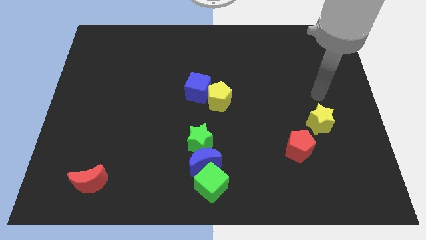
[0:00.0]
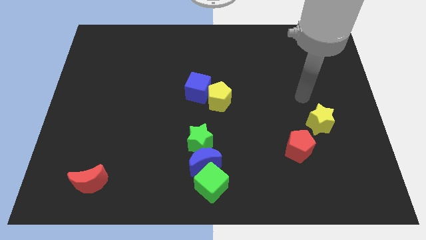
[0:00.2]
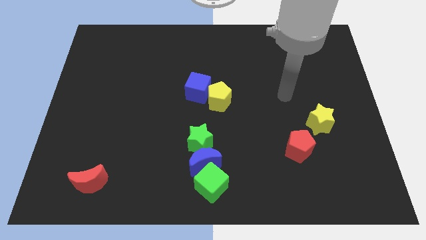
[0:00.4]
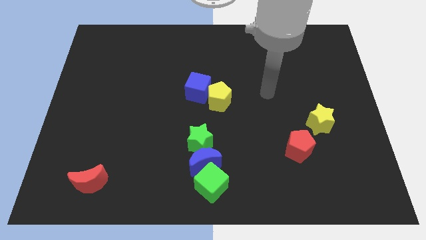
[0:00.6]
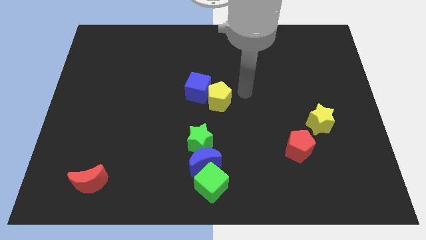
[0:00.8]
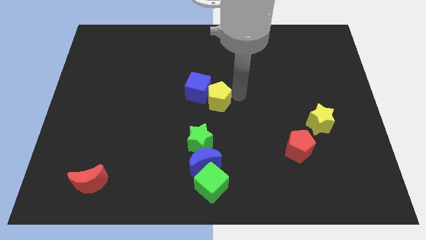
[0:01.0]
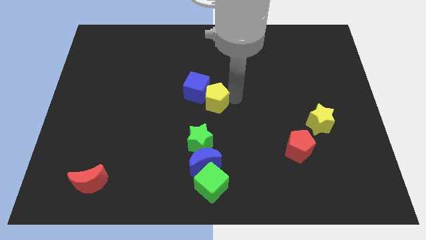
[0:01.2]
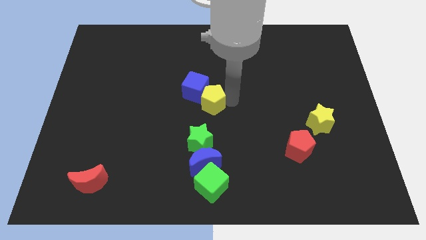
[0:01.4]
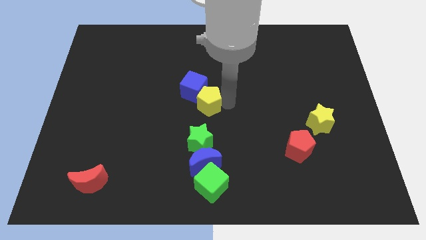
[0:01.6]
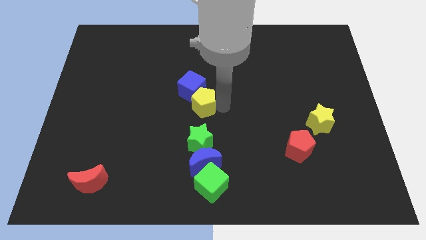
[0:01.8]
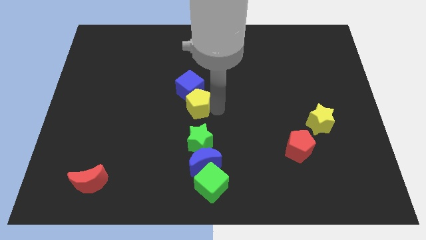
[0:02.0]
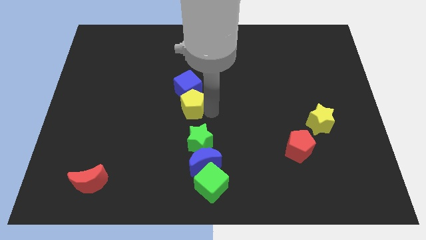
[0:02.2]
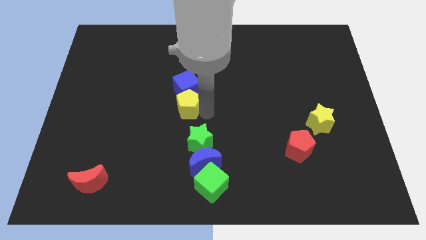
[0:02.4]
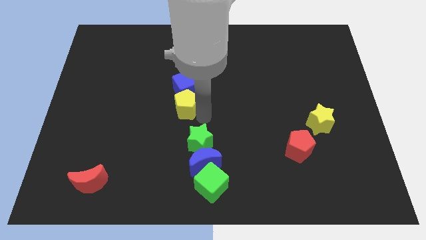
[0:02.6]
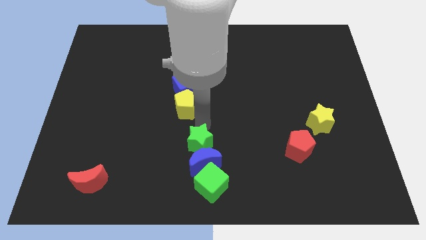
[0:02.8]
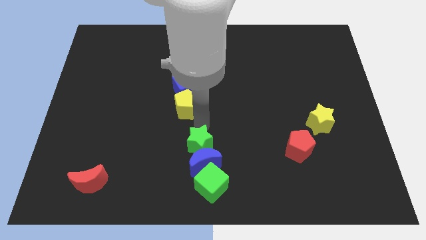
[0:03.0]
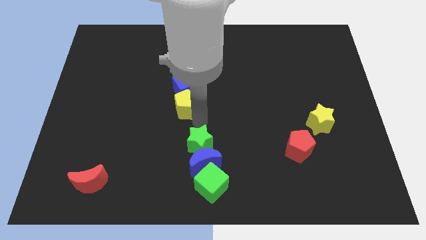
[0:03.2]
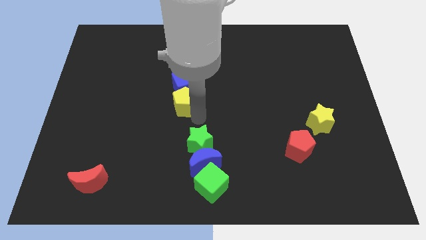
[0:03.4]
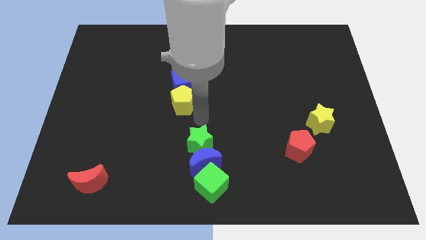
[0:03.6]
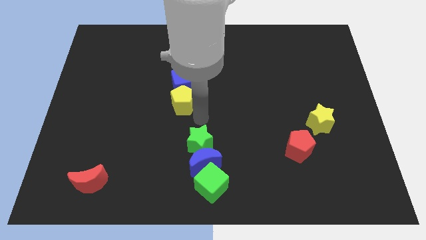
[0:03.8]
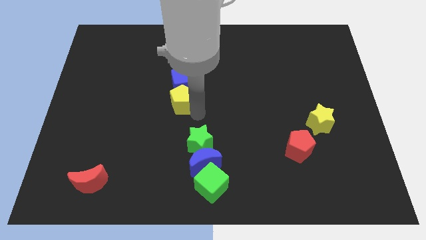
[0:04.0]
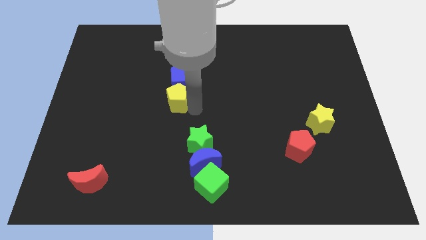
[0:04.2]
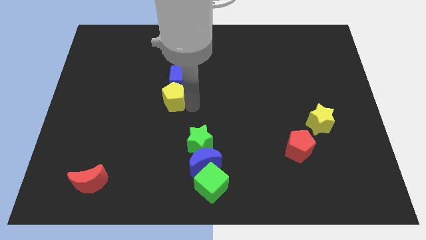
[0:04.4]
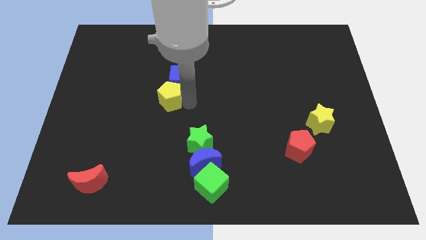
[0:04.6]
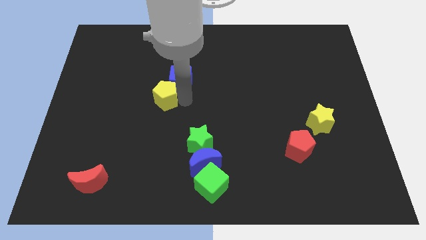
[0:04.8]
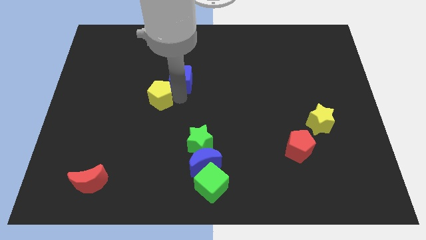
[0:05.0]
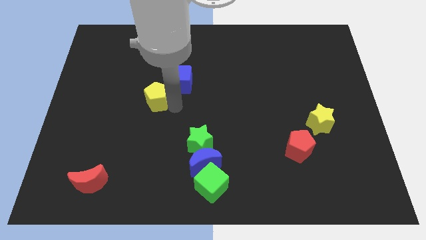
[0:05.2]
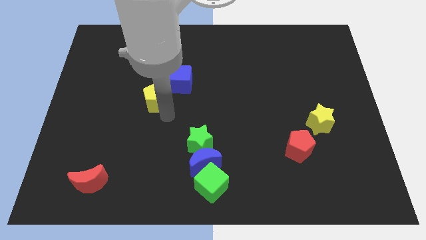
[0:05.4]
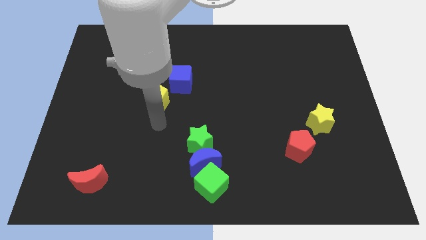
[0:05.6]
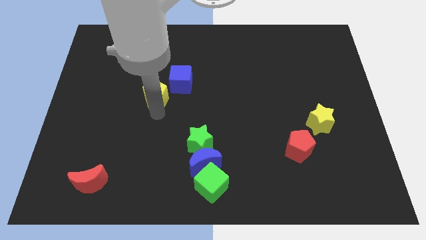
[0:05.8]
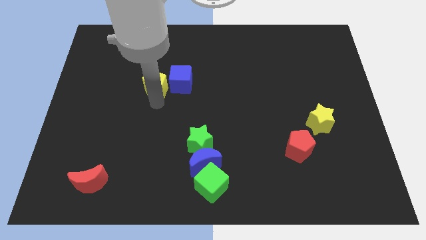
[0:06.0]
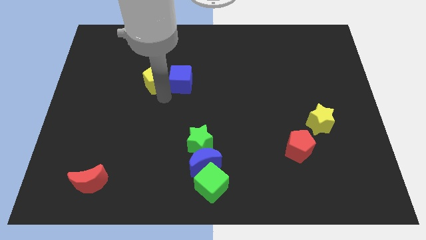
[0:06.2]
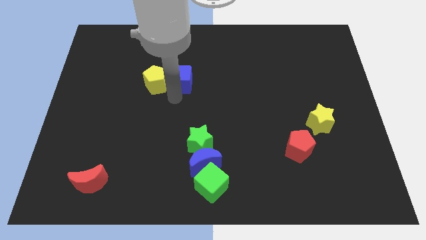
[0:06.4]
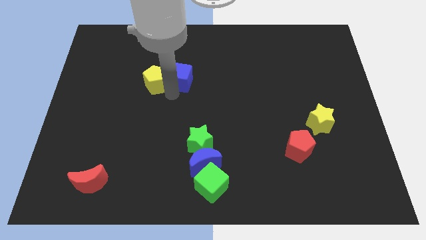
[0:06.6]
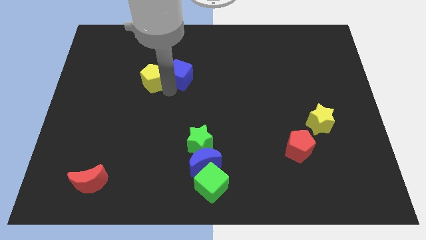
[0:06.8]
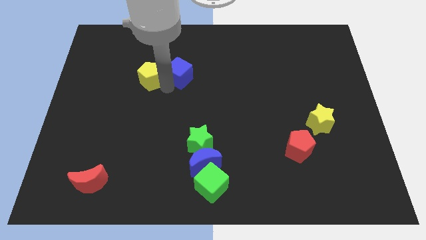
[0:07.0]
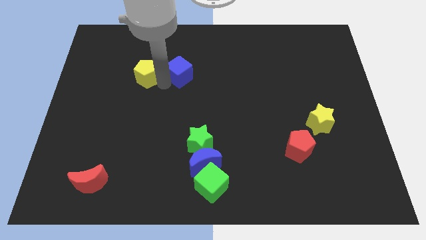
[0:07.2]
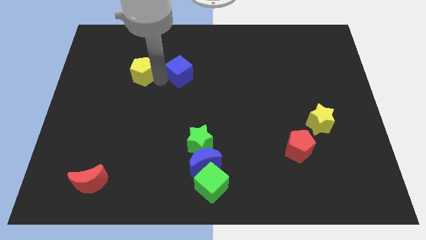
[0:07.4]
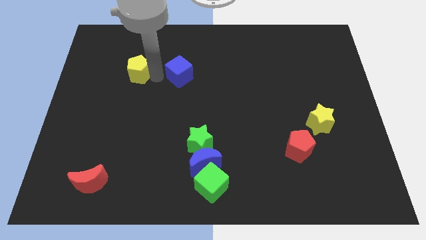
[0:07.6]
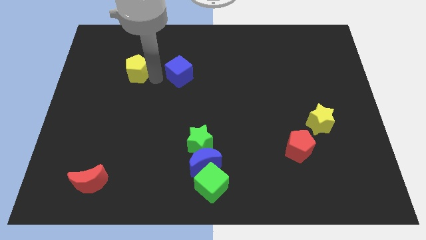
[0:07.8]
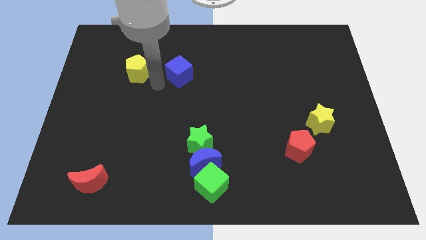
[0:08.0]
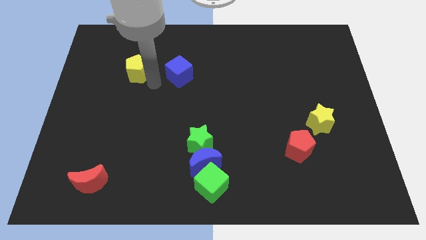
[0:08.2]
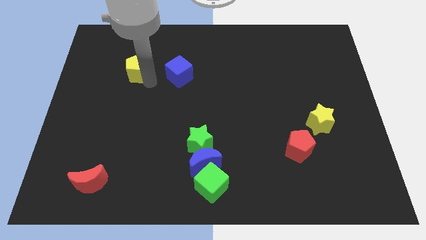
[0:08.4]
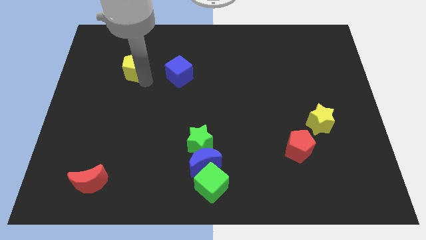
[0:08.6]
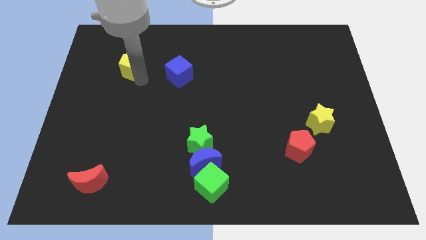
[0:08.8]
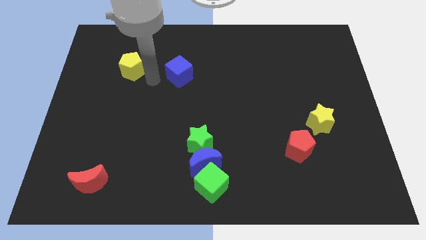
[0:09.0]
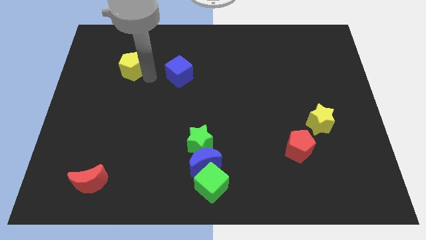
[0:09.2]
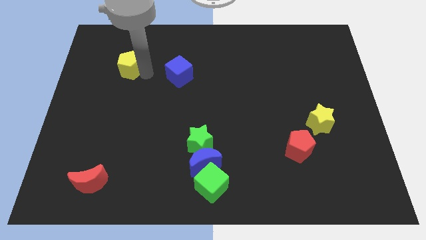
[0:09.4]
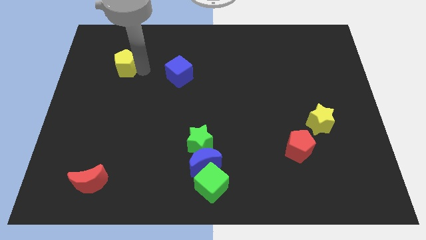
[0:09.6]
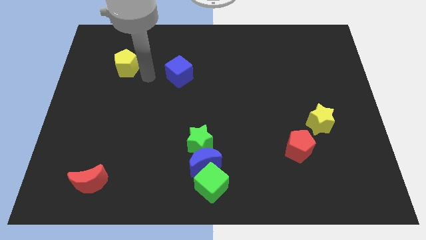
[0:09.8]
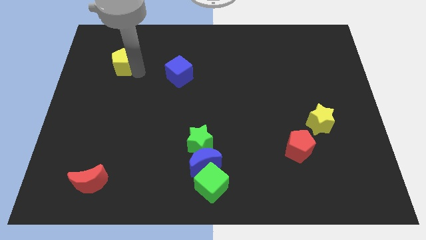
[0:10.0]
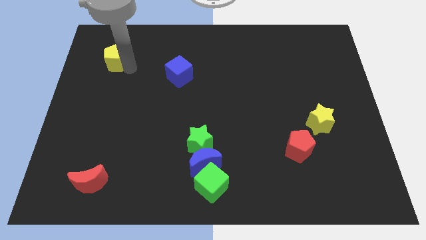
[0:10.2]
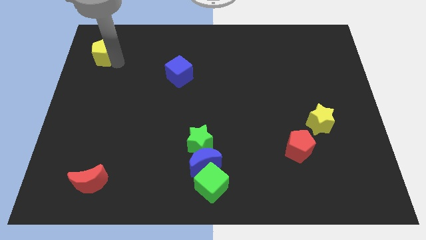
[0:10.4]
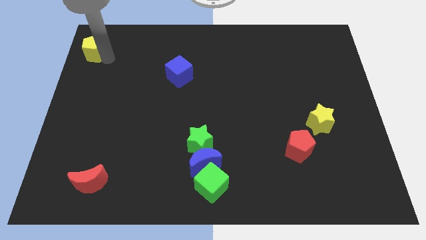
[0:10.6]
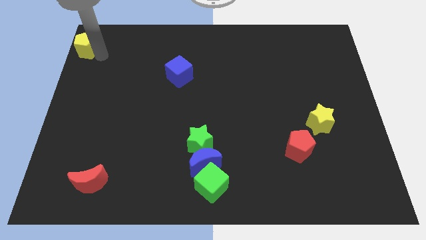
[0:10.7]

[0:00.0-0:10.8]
slide the yellow pentagon to the upper left corner
